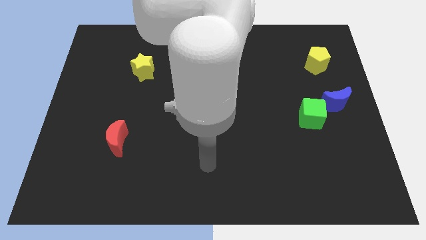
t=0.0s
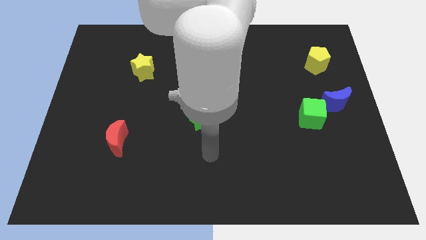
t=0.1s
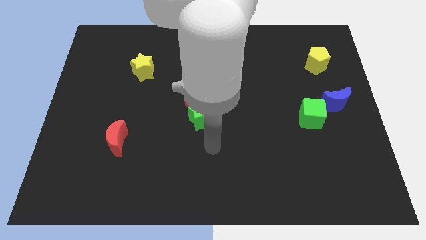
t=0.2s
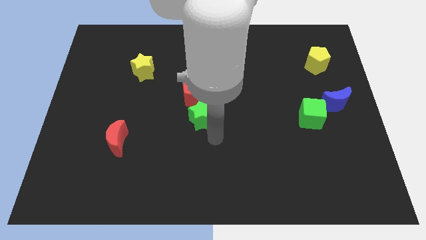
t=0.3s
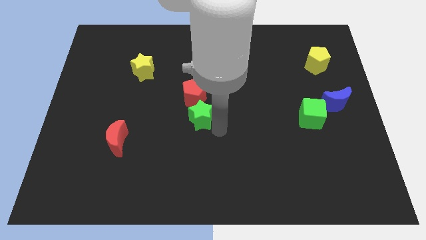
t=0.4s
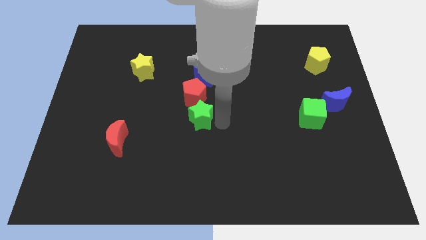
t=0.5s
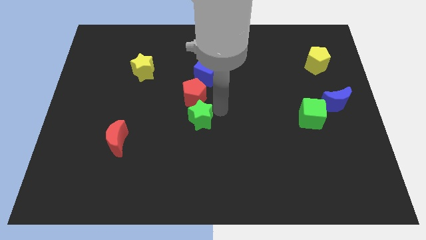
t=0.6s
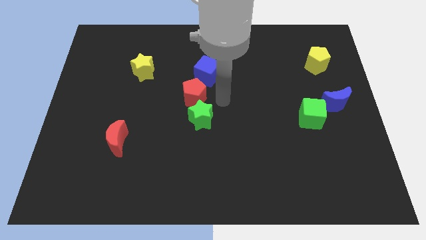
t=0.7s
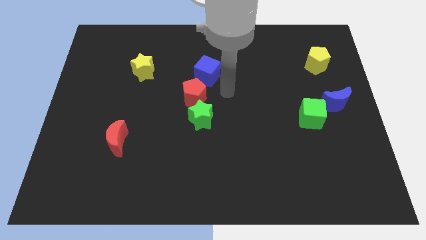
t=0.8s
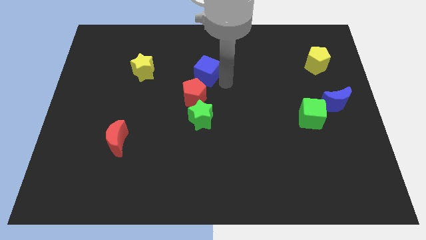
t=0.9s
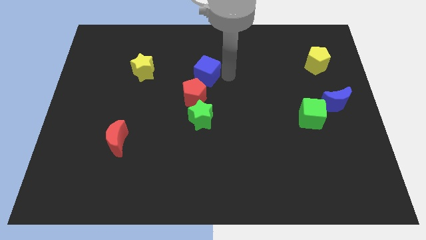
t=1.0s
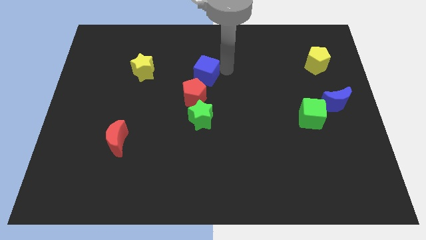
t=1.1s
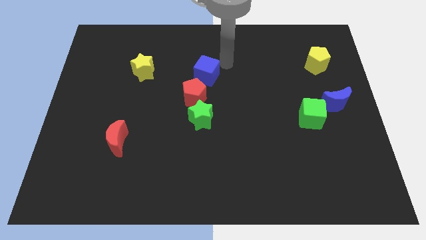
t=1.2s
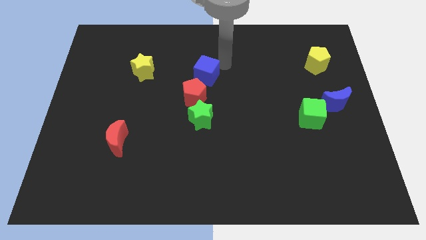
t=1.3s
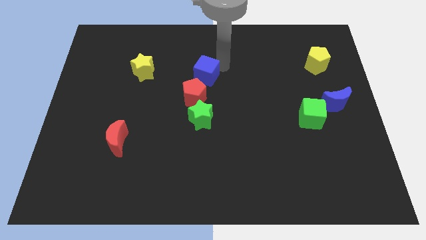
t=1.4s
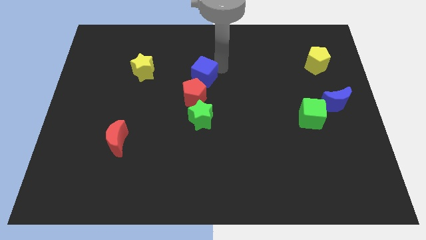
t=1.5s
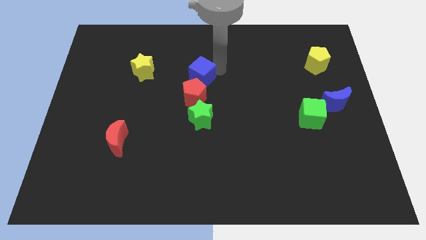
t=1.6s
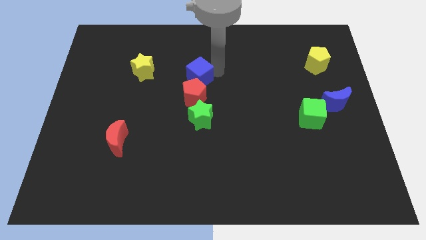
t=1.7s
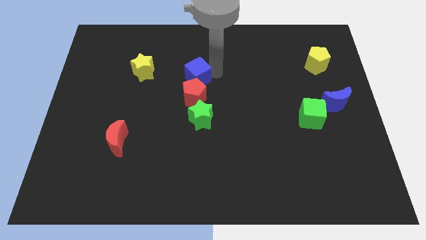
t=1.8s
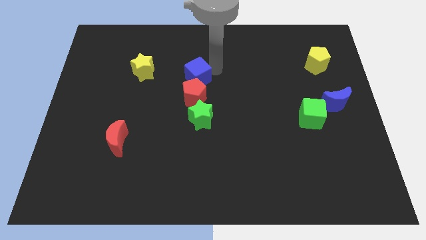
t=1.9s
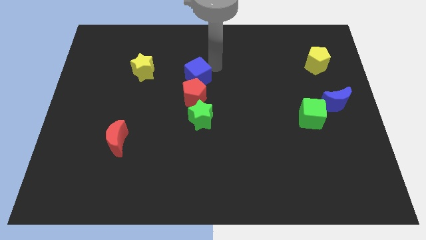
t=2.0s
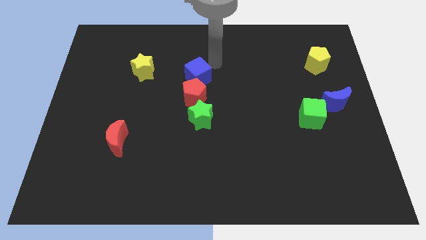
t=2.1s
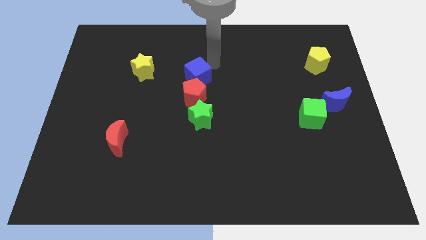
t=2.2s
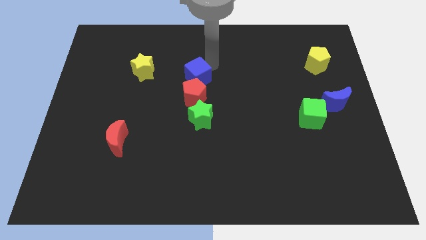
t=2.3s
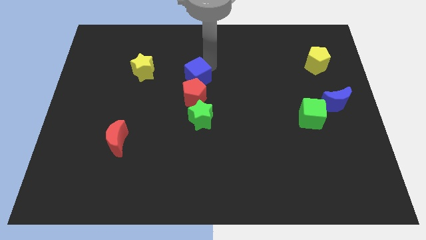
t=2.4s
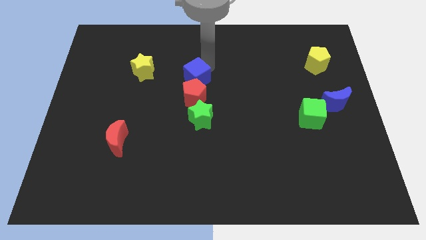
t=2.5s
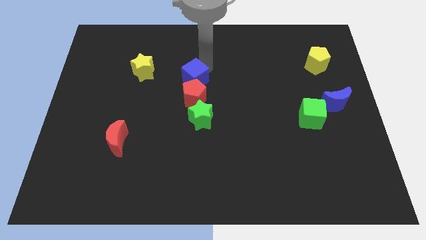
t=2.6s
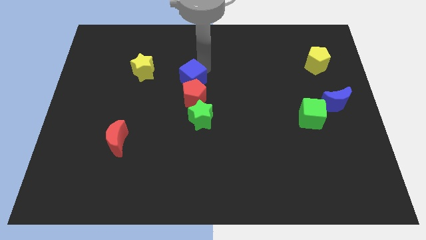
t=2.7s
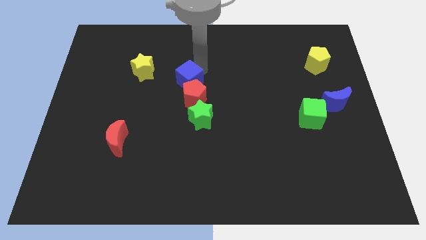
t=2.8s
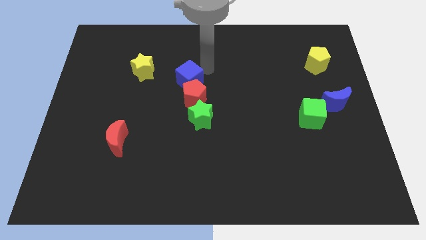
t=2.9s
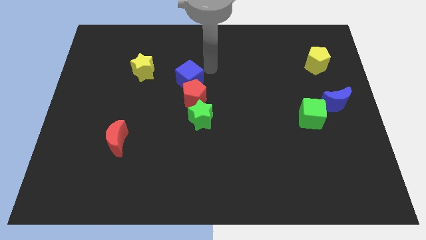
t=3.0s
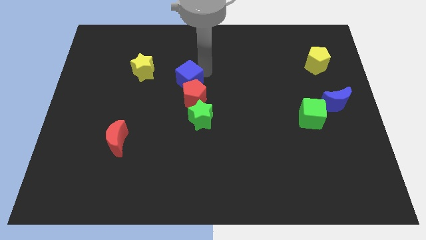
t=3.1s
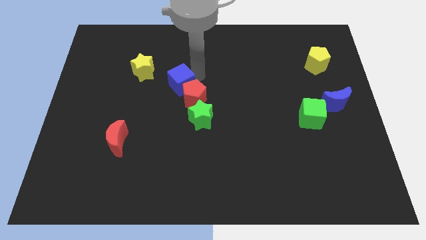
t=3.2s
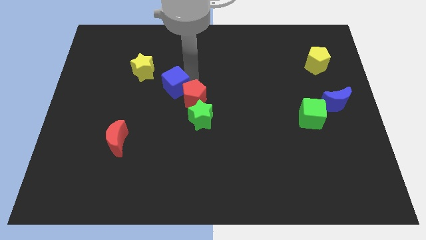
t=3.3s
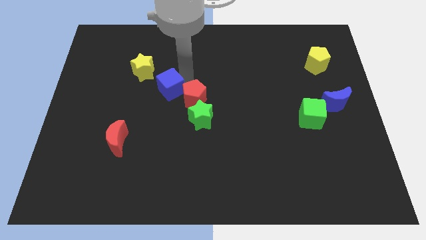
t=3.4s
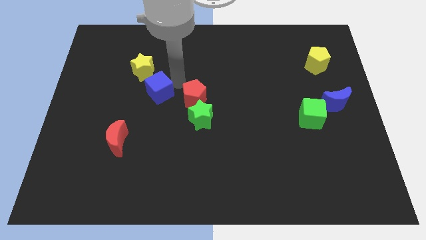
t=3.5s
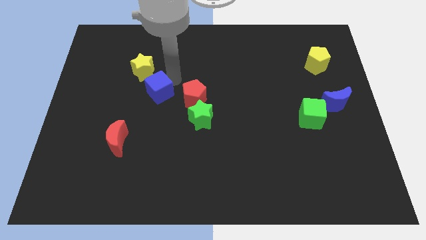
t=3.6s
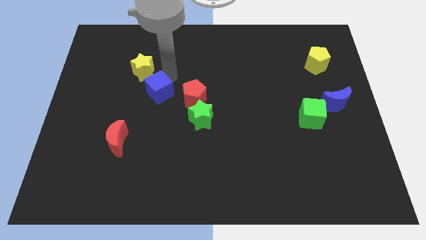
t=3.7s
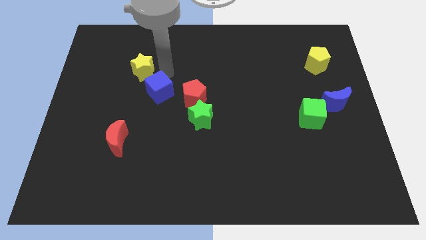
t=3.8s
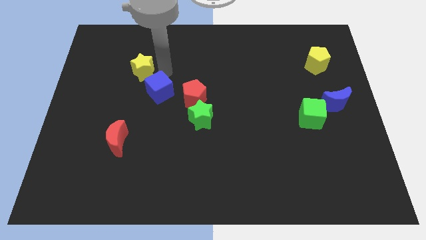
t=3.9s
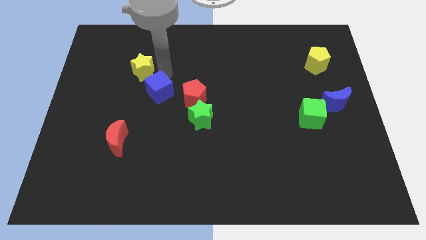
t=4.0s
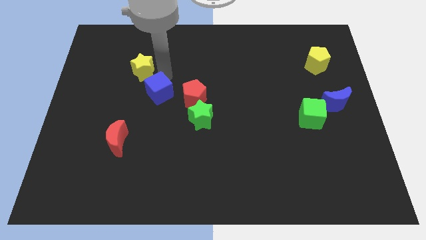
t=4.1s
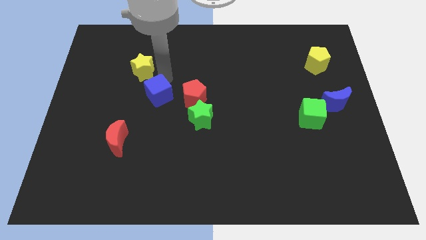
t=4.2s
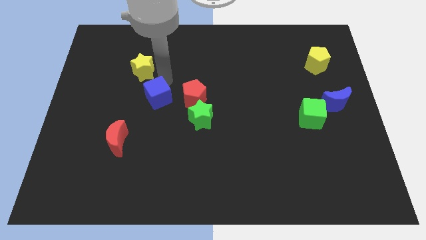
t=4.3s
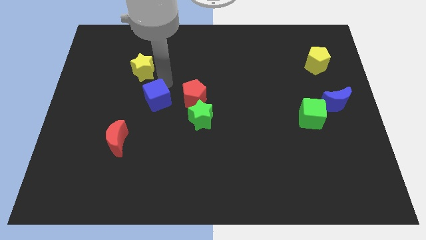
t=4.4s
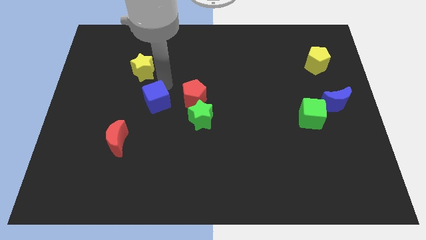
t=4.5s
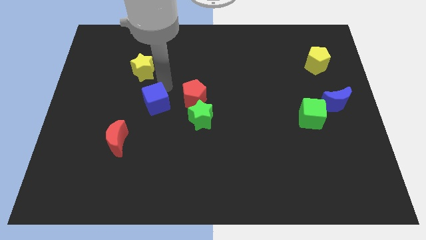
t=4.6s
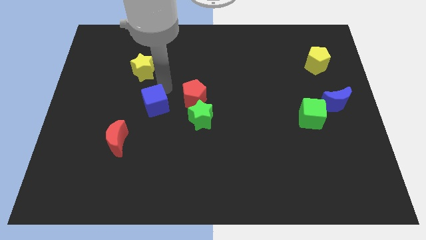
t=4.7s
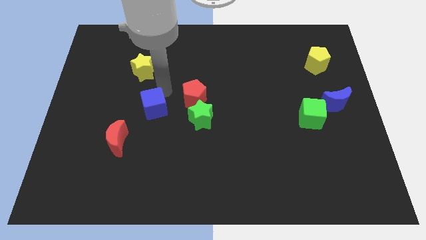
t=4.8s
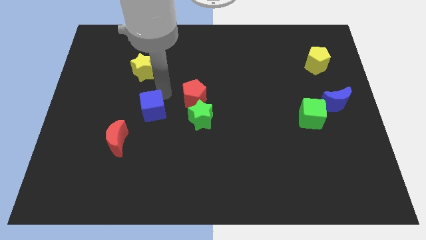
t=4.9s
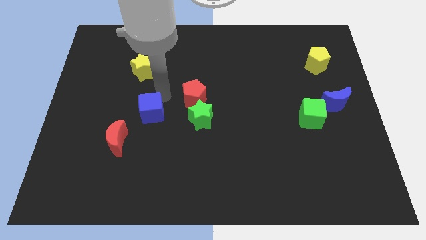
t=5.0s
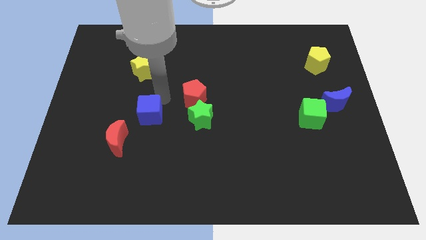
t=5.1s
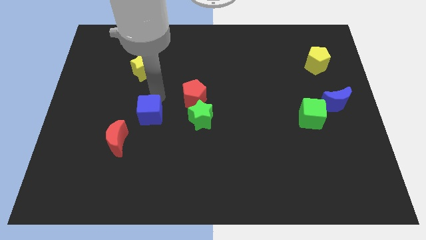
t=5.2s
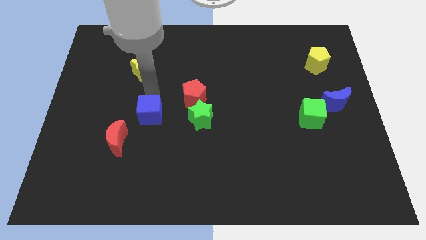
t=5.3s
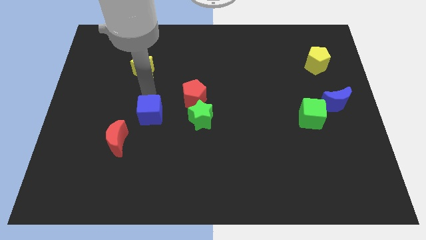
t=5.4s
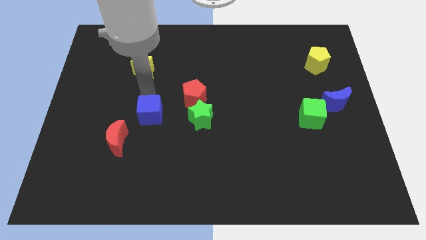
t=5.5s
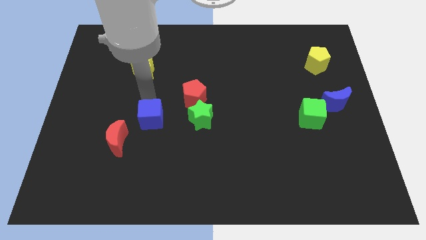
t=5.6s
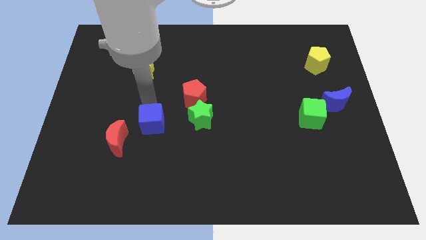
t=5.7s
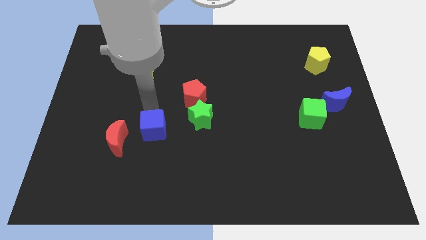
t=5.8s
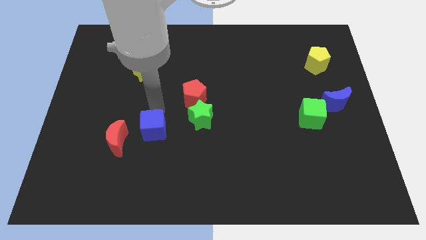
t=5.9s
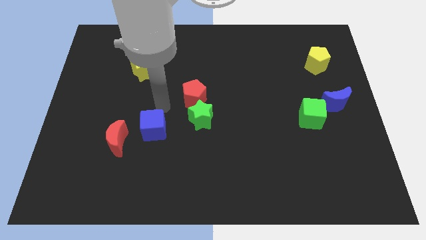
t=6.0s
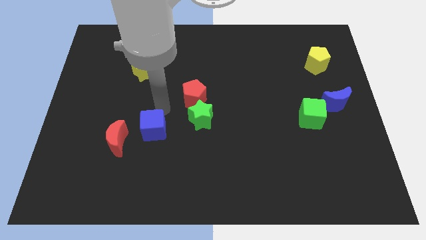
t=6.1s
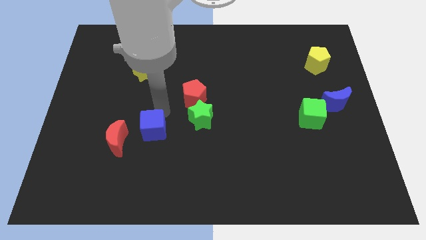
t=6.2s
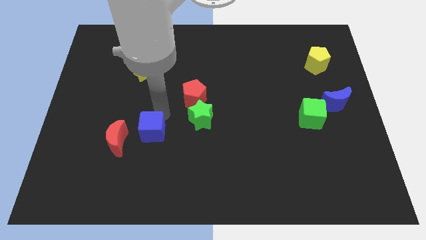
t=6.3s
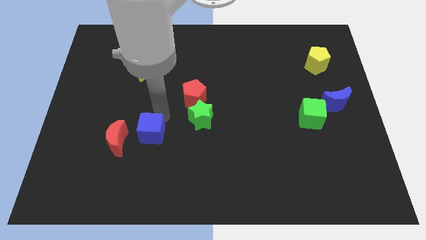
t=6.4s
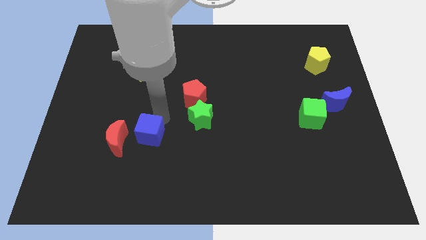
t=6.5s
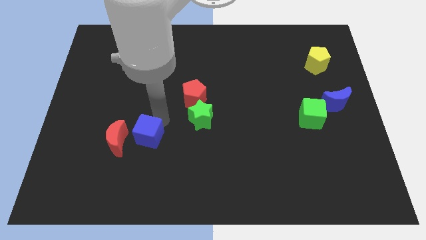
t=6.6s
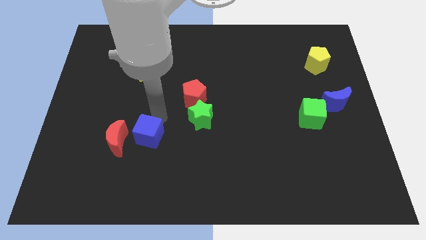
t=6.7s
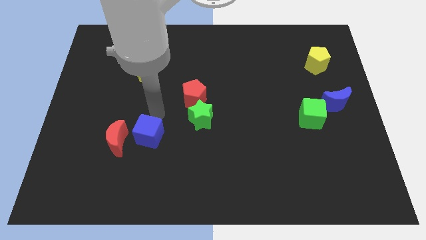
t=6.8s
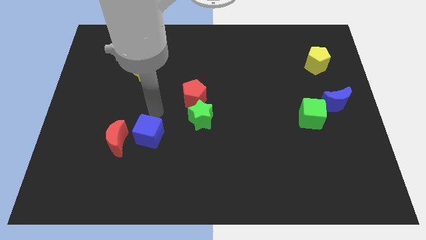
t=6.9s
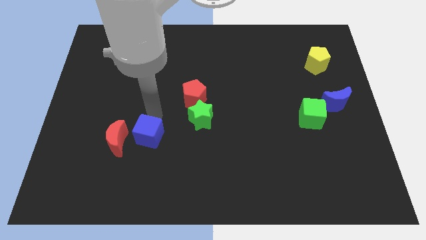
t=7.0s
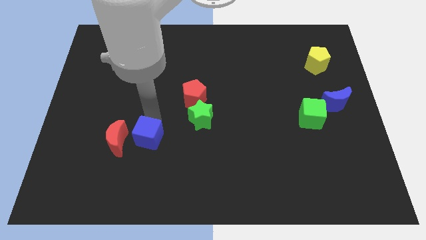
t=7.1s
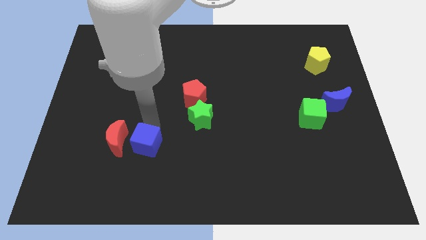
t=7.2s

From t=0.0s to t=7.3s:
push the blue cube to the bottom right side of the red moon
